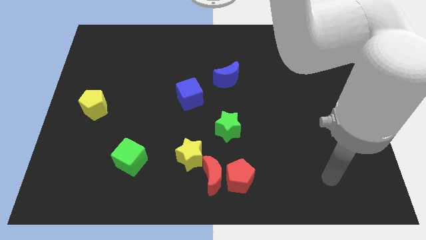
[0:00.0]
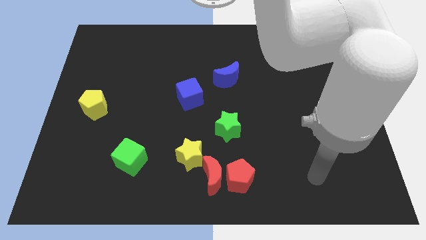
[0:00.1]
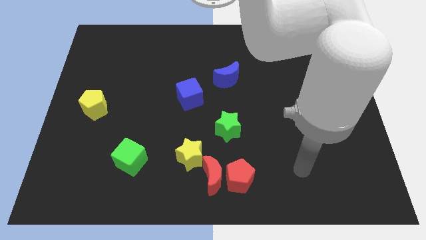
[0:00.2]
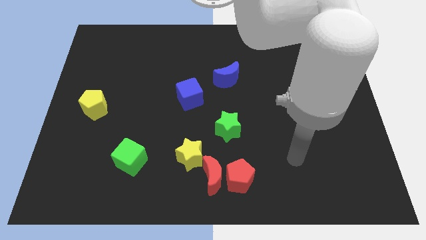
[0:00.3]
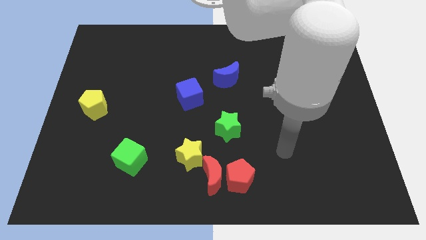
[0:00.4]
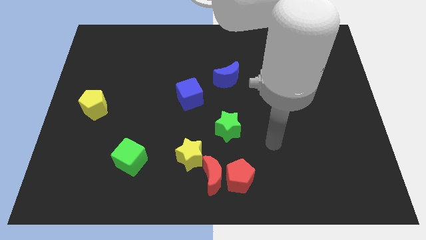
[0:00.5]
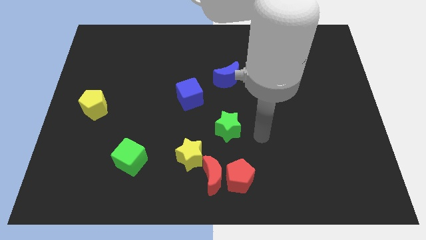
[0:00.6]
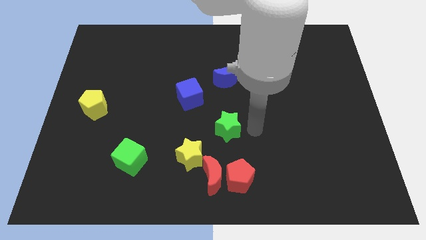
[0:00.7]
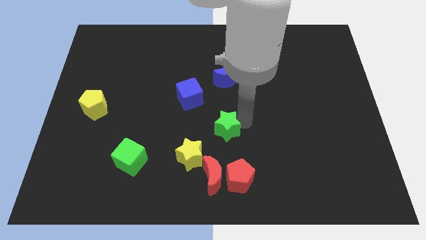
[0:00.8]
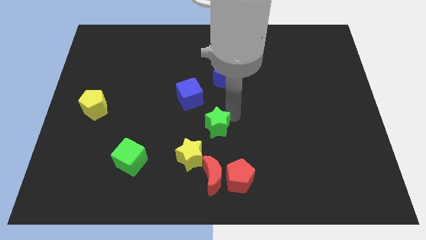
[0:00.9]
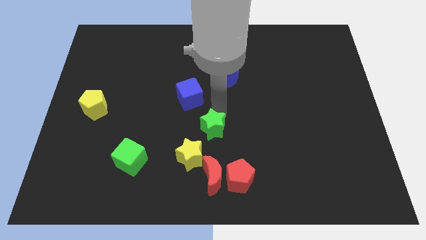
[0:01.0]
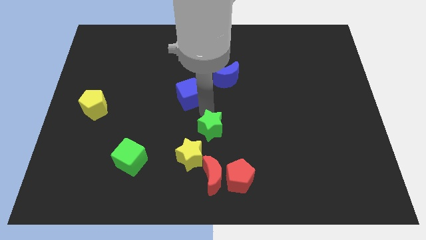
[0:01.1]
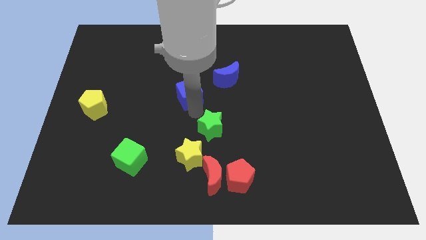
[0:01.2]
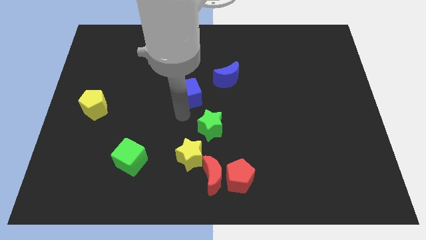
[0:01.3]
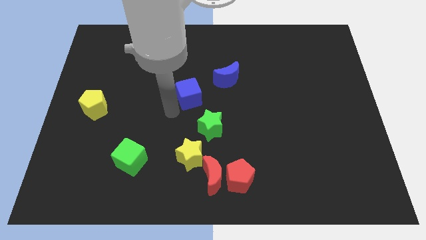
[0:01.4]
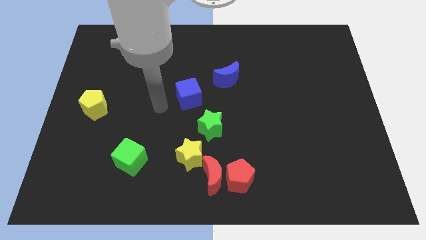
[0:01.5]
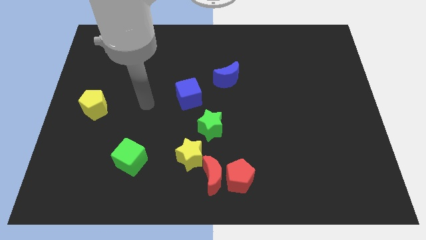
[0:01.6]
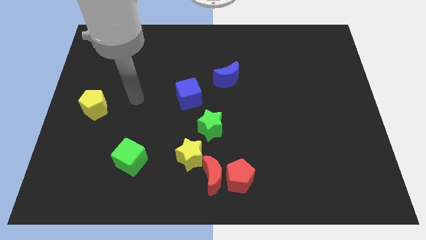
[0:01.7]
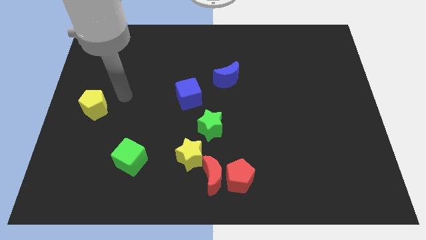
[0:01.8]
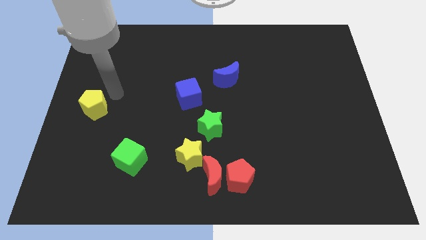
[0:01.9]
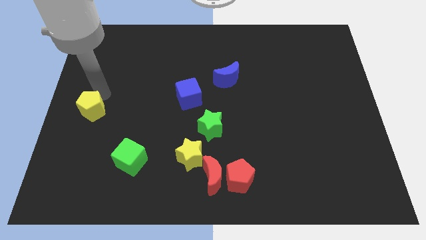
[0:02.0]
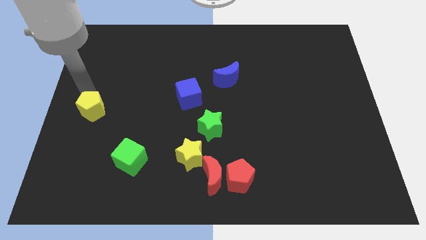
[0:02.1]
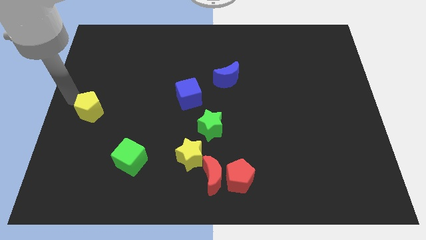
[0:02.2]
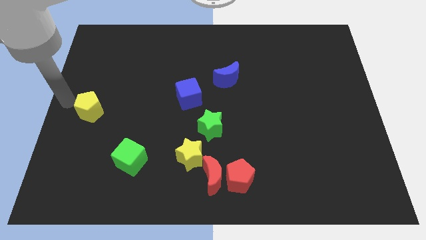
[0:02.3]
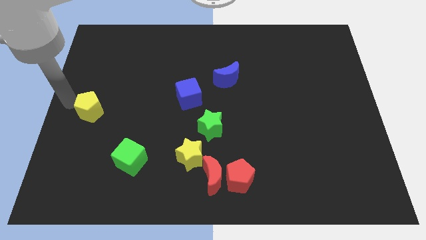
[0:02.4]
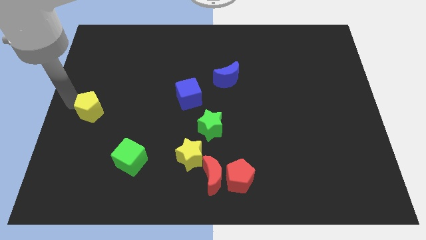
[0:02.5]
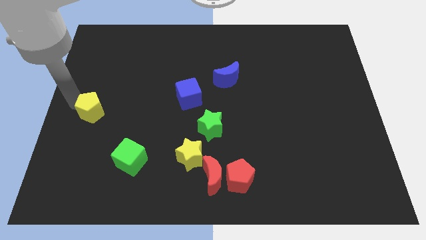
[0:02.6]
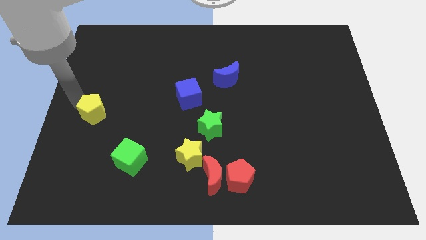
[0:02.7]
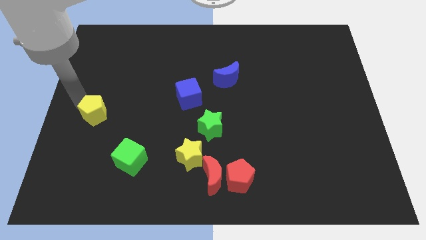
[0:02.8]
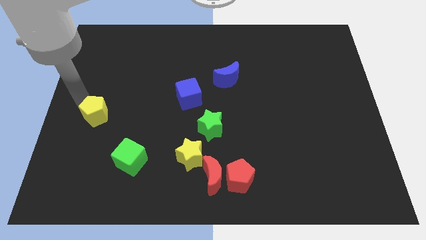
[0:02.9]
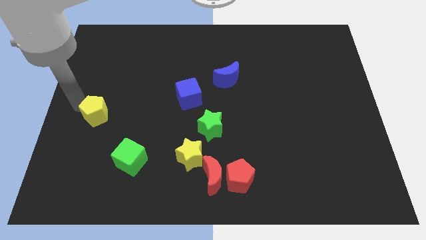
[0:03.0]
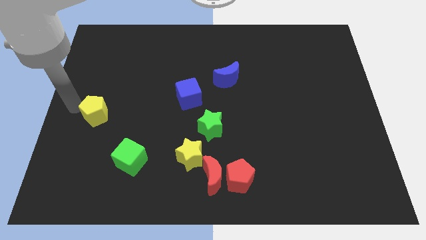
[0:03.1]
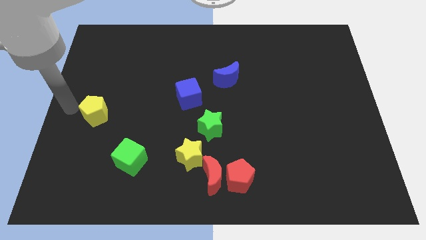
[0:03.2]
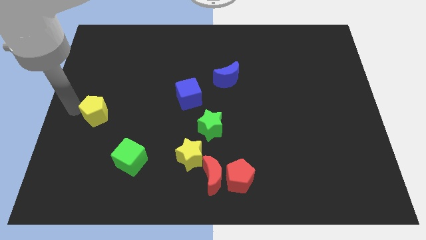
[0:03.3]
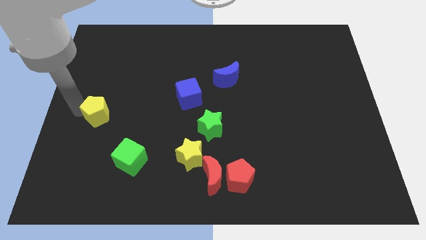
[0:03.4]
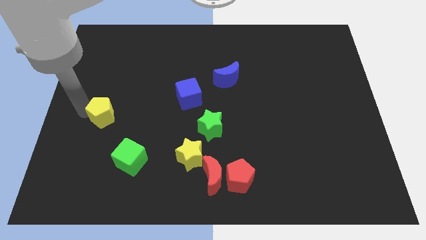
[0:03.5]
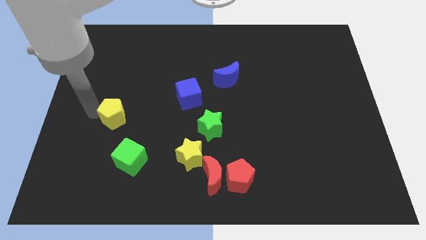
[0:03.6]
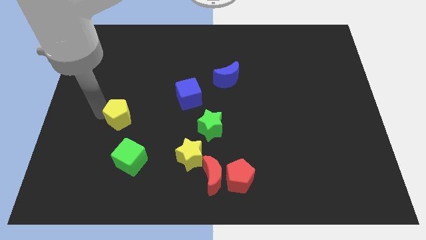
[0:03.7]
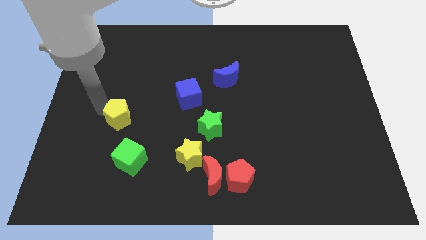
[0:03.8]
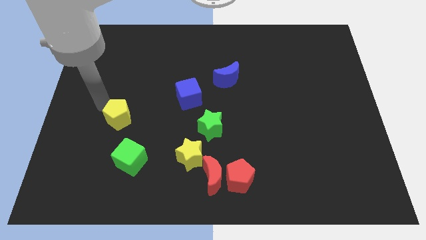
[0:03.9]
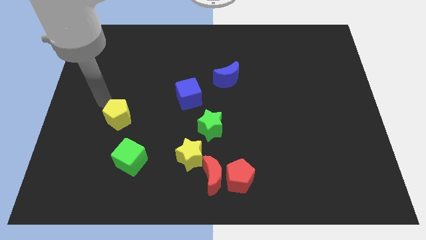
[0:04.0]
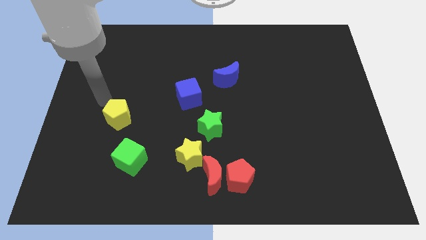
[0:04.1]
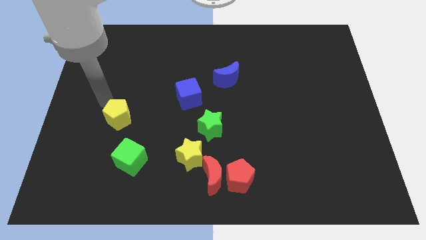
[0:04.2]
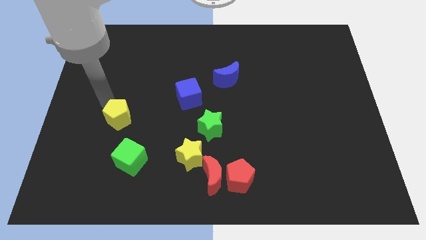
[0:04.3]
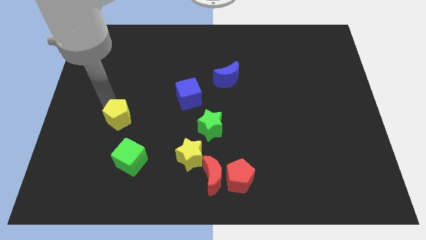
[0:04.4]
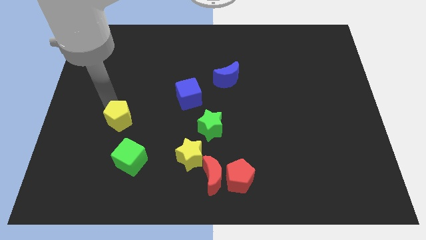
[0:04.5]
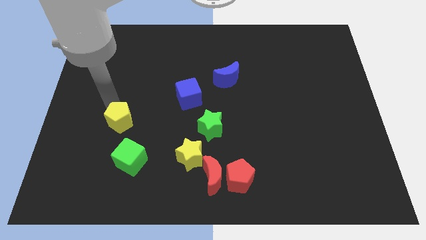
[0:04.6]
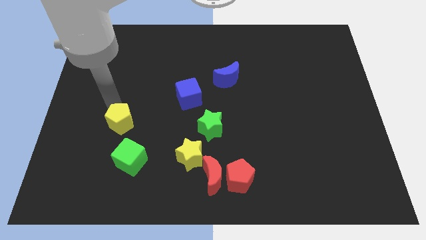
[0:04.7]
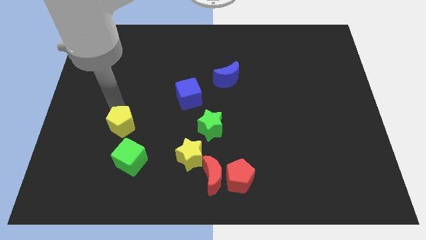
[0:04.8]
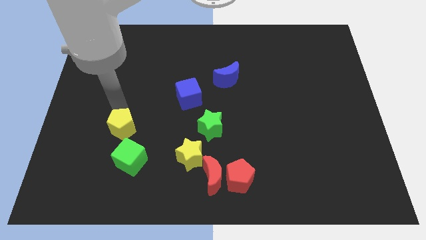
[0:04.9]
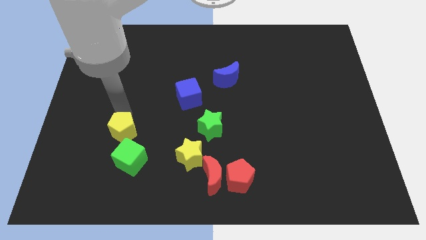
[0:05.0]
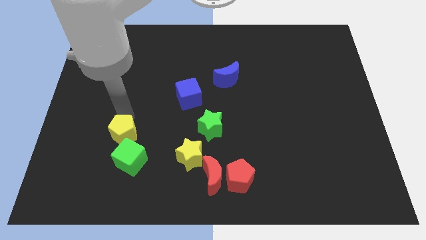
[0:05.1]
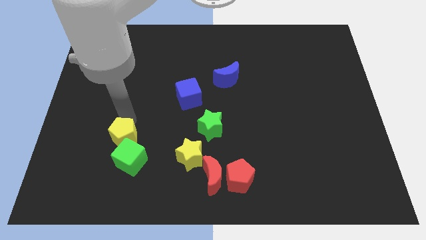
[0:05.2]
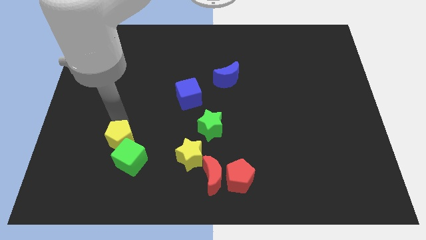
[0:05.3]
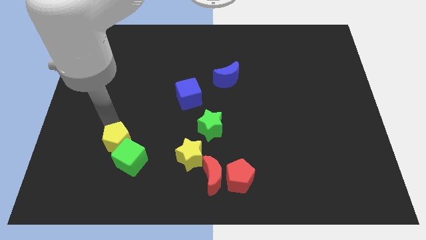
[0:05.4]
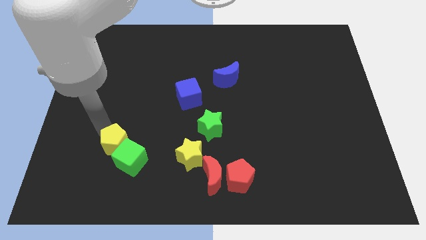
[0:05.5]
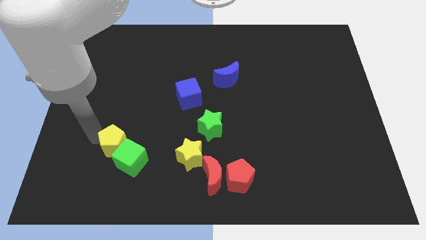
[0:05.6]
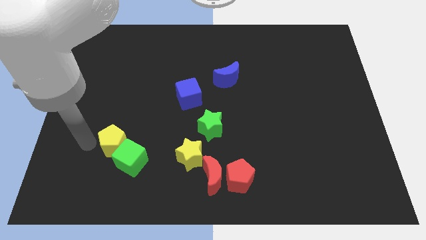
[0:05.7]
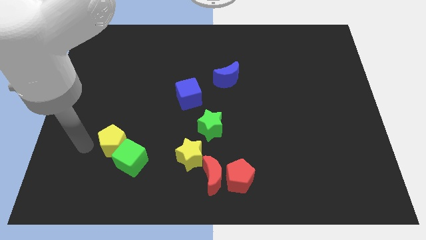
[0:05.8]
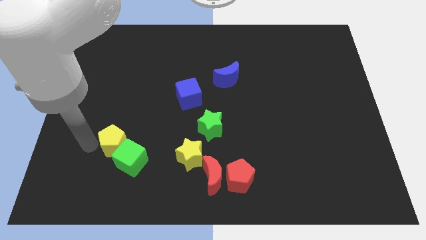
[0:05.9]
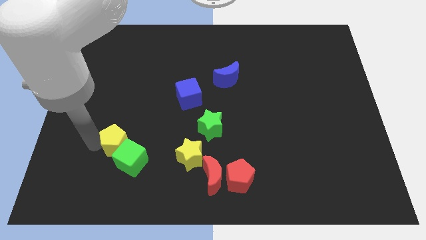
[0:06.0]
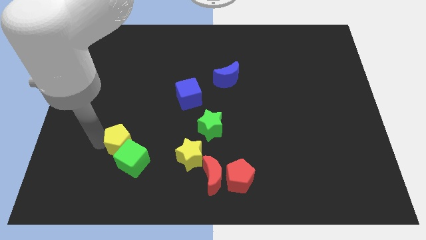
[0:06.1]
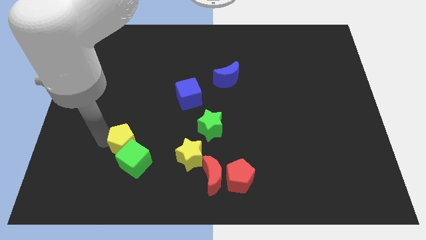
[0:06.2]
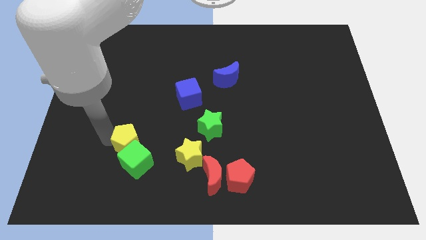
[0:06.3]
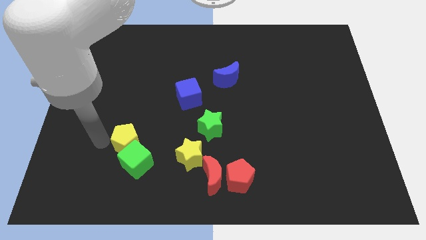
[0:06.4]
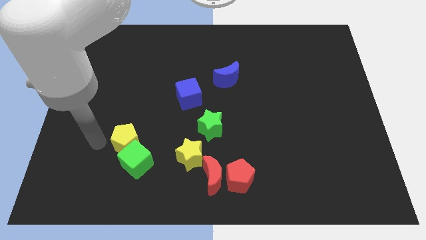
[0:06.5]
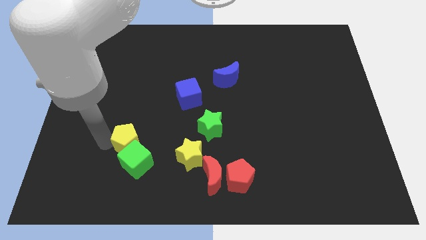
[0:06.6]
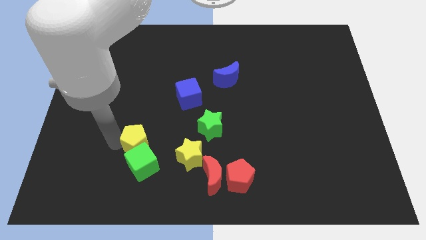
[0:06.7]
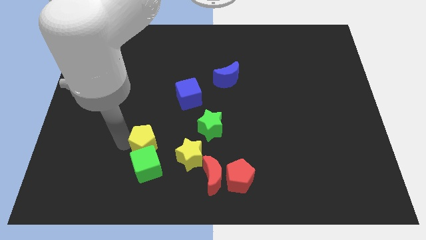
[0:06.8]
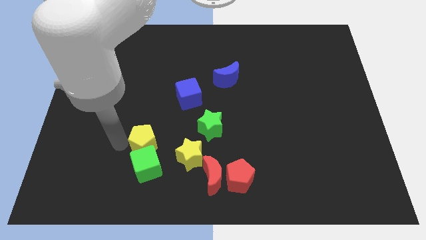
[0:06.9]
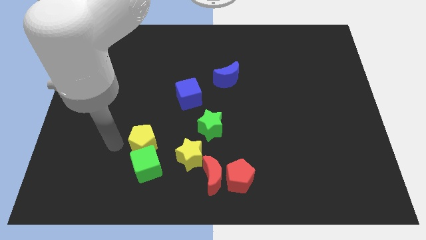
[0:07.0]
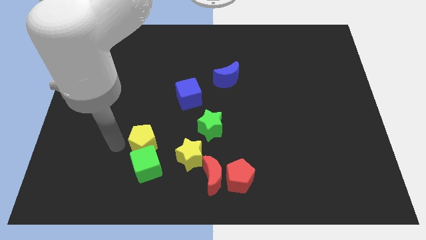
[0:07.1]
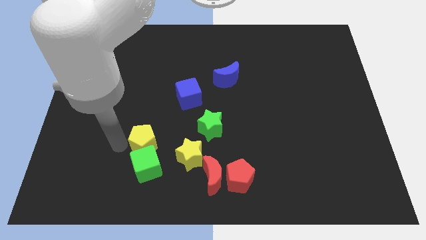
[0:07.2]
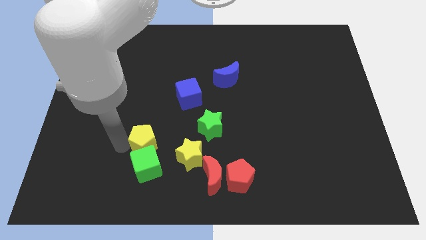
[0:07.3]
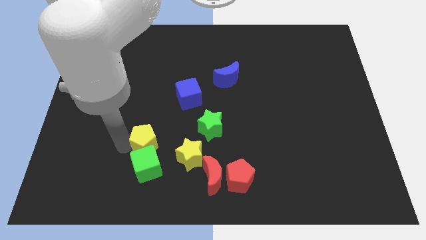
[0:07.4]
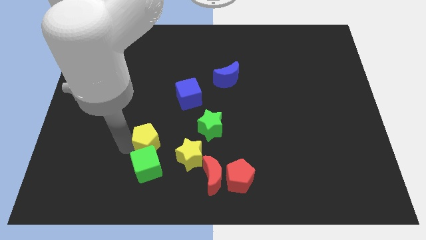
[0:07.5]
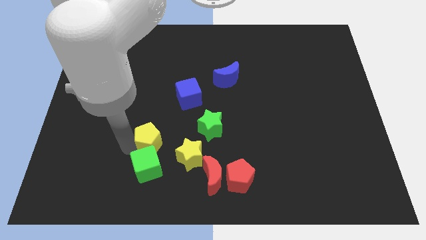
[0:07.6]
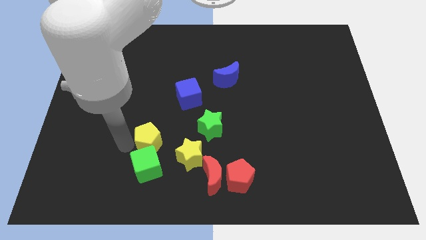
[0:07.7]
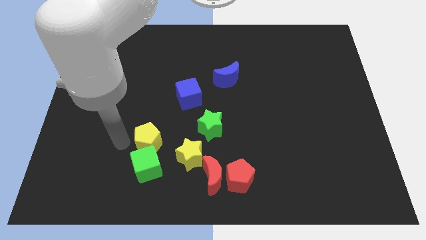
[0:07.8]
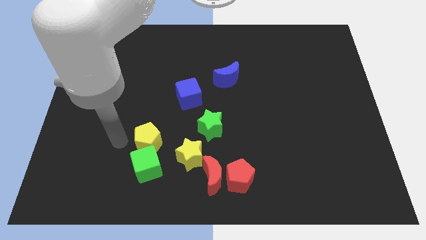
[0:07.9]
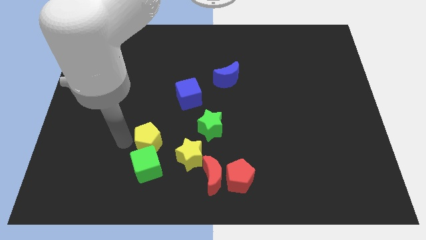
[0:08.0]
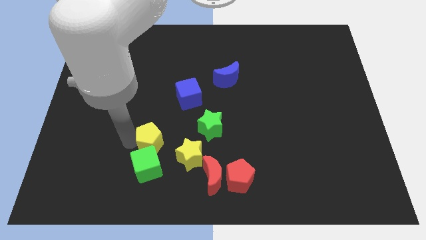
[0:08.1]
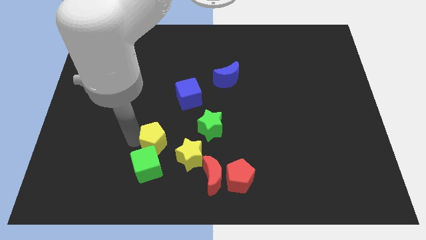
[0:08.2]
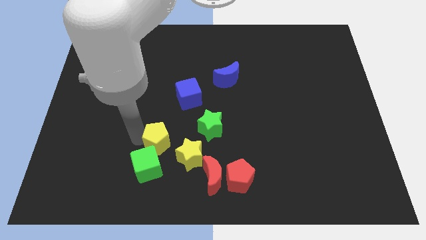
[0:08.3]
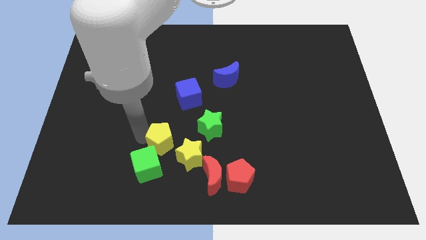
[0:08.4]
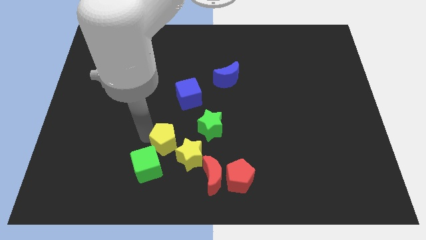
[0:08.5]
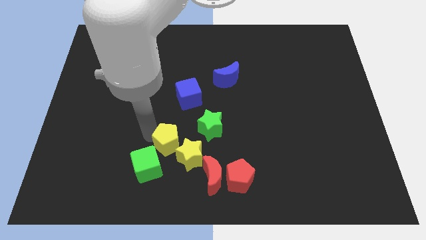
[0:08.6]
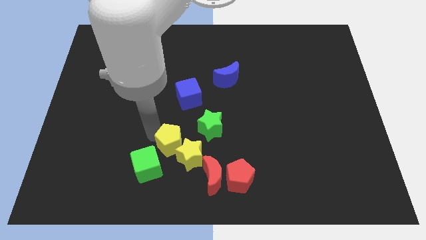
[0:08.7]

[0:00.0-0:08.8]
slide the yellow pentagon towards the yellow star
